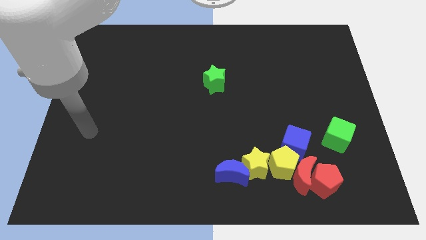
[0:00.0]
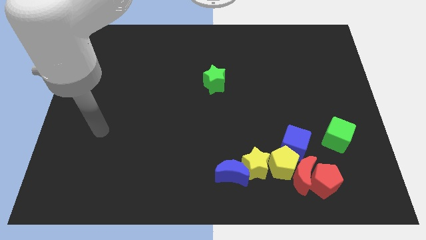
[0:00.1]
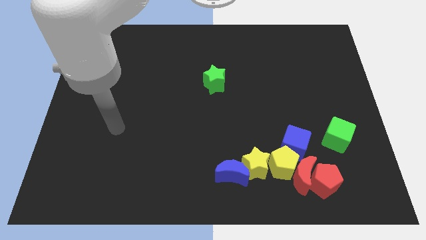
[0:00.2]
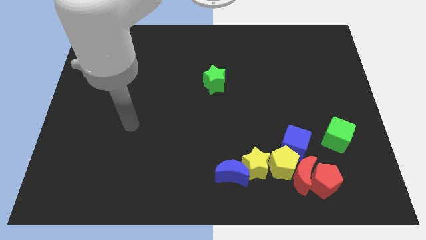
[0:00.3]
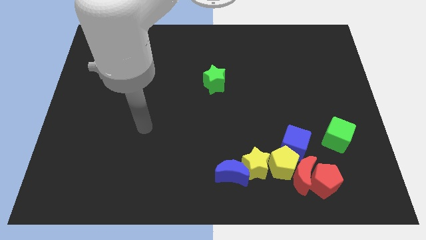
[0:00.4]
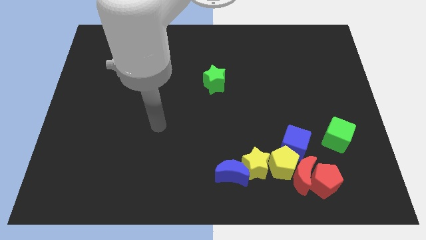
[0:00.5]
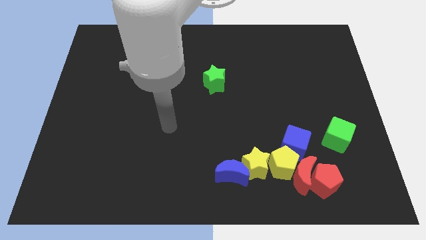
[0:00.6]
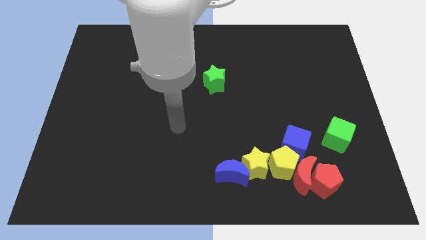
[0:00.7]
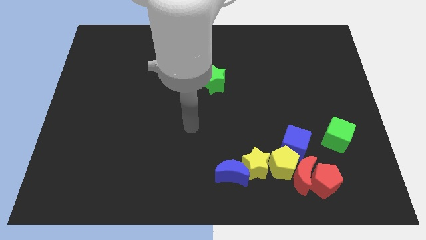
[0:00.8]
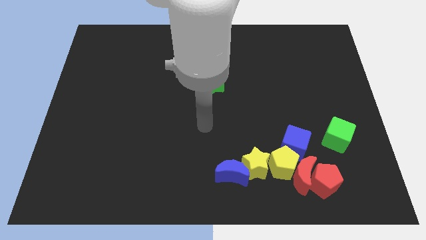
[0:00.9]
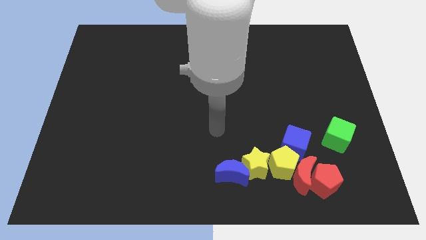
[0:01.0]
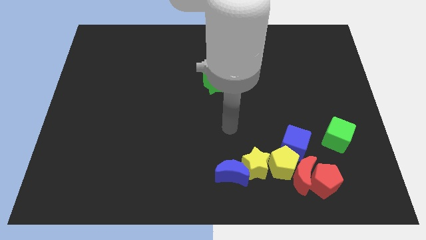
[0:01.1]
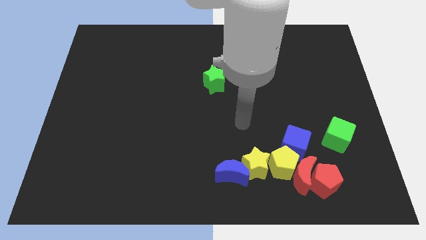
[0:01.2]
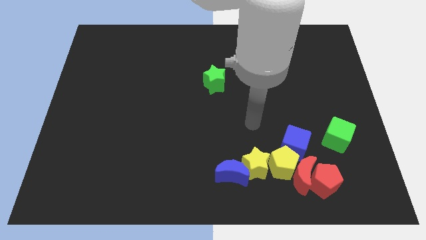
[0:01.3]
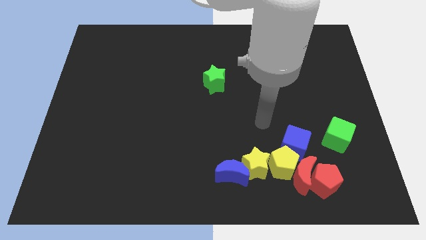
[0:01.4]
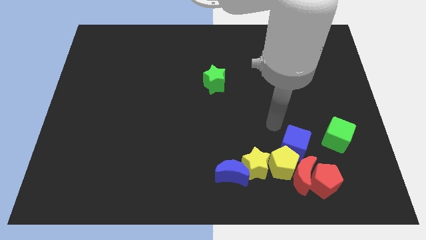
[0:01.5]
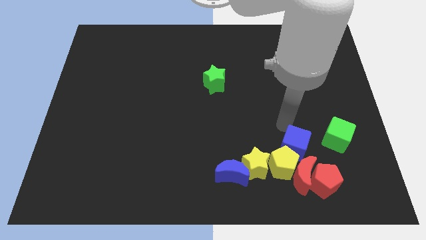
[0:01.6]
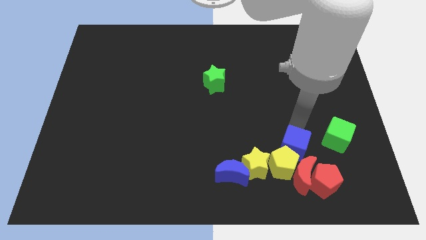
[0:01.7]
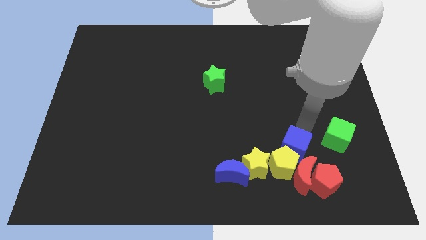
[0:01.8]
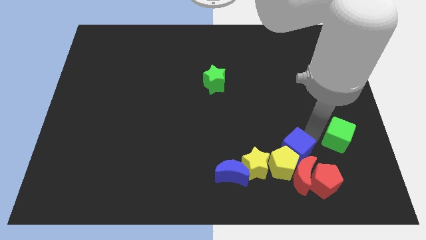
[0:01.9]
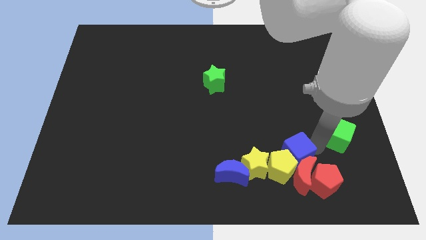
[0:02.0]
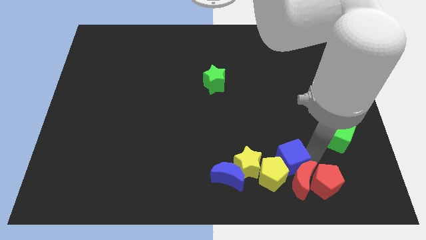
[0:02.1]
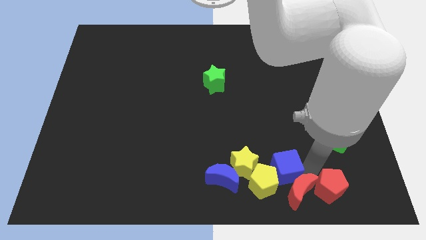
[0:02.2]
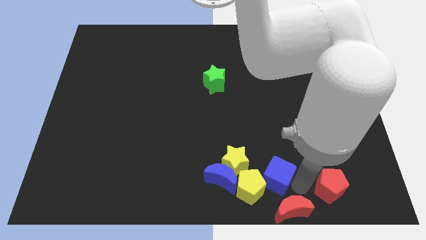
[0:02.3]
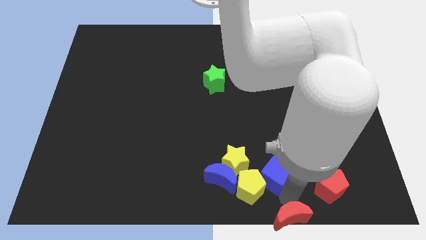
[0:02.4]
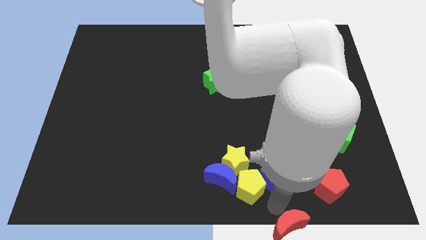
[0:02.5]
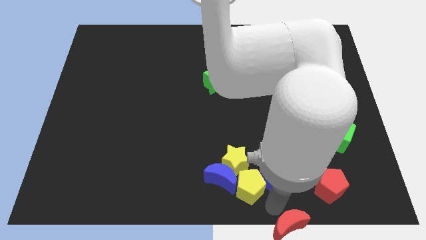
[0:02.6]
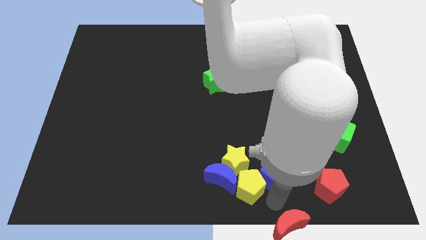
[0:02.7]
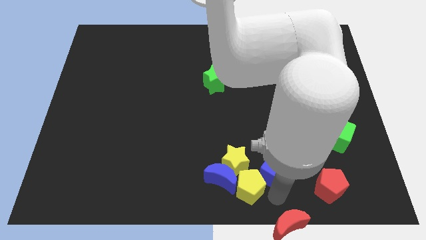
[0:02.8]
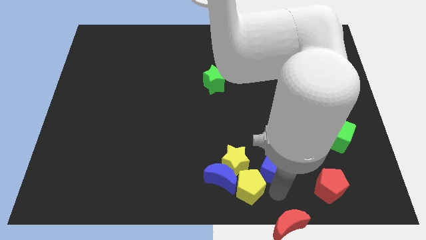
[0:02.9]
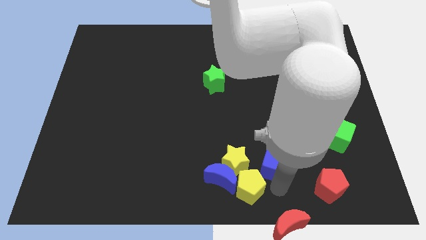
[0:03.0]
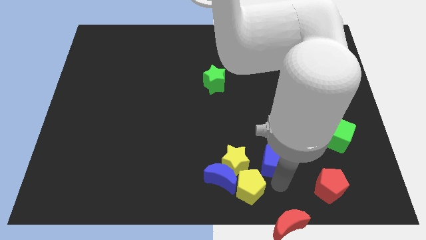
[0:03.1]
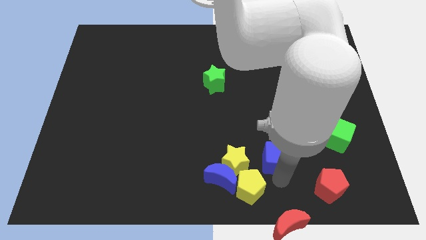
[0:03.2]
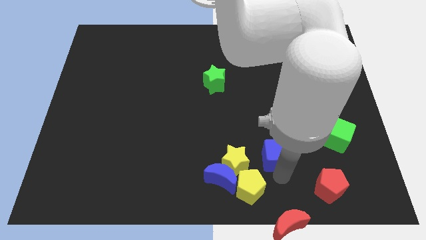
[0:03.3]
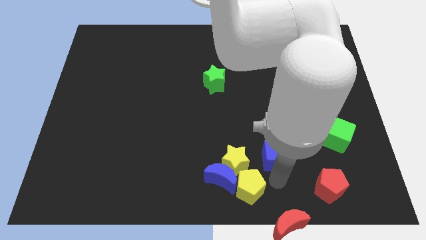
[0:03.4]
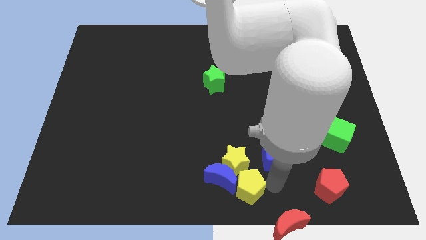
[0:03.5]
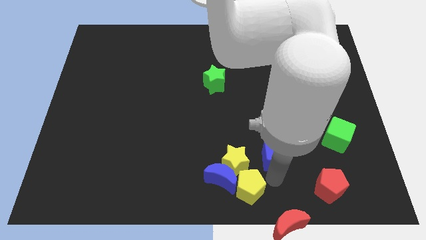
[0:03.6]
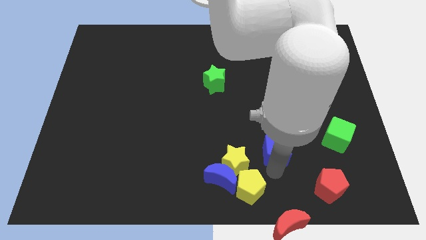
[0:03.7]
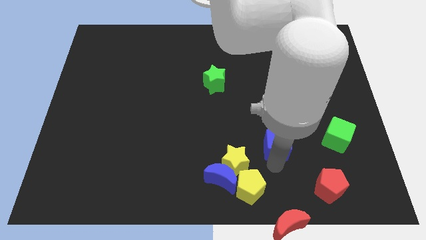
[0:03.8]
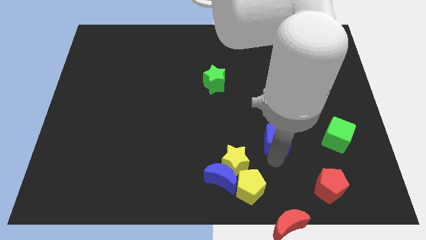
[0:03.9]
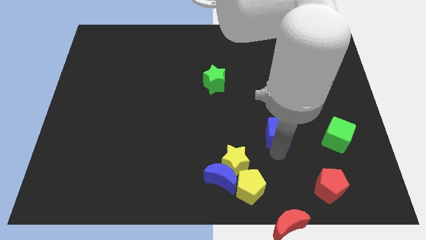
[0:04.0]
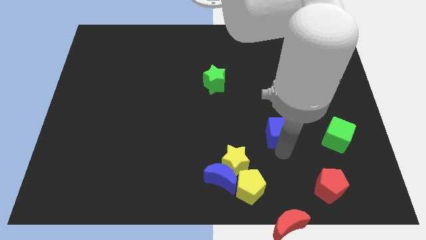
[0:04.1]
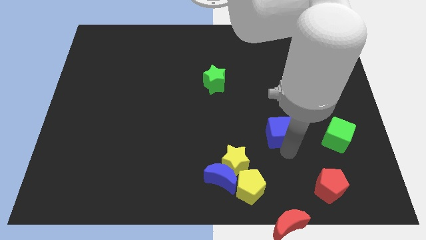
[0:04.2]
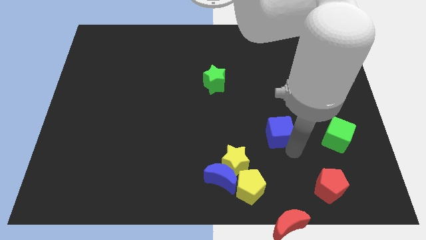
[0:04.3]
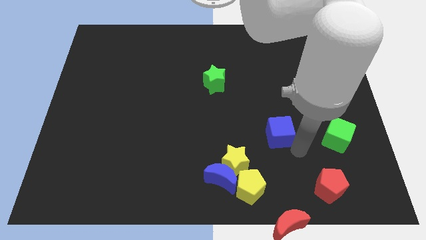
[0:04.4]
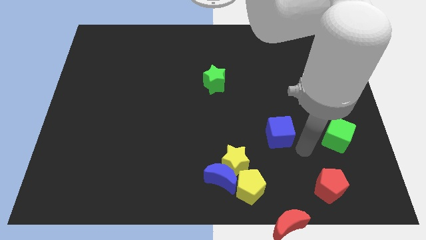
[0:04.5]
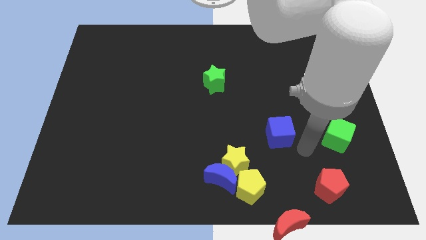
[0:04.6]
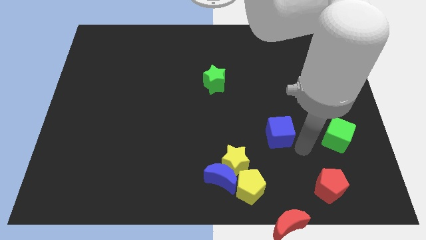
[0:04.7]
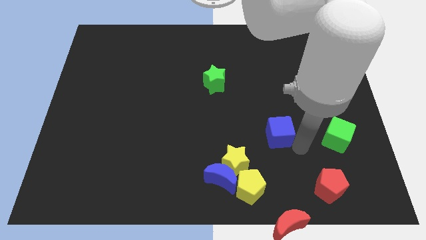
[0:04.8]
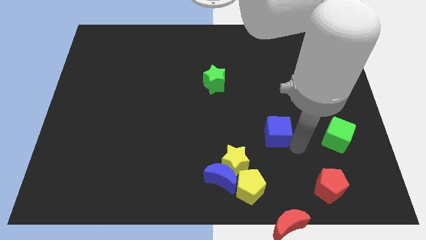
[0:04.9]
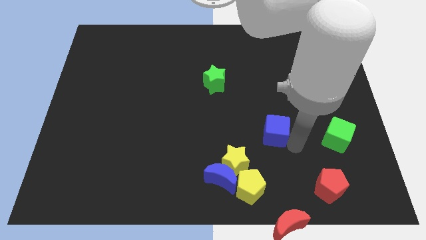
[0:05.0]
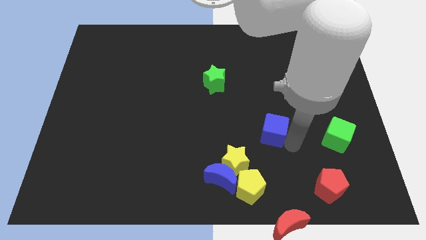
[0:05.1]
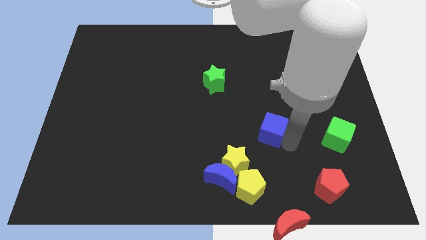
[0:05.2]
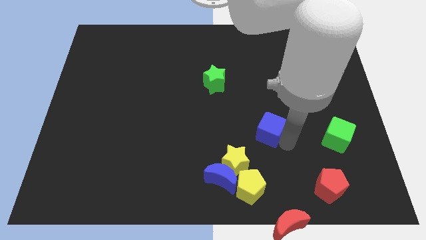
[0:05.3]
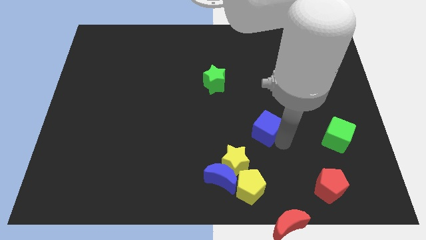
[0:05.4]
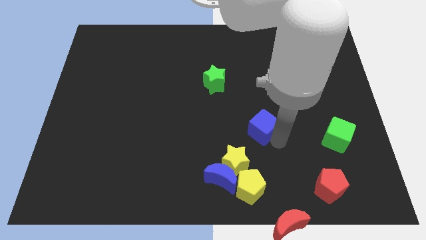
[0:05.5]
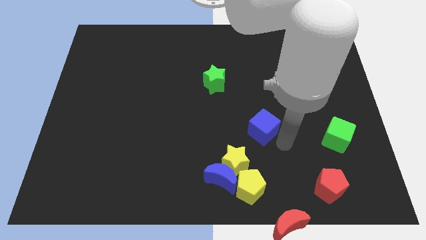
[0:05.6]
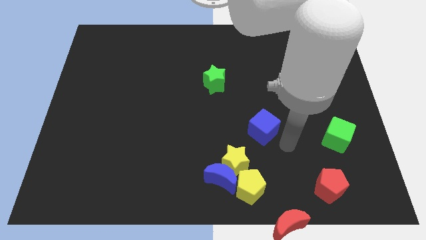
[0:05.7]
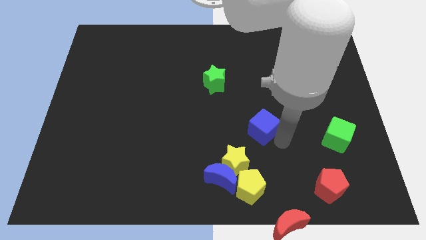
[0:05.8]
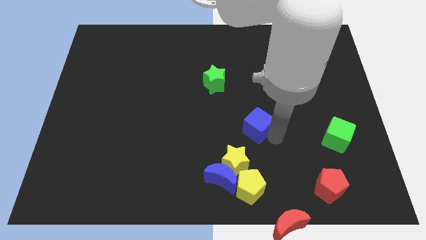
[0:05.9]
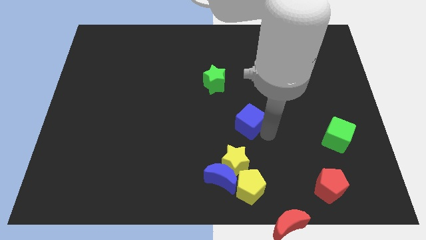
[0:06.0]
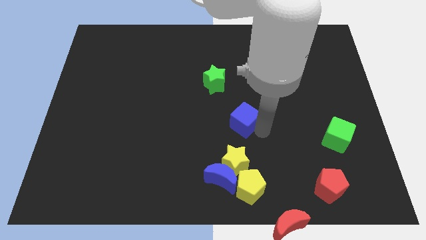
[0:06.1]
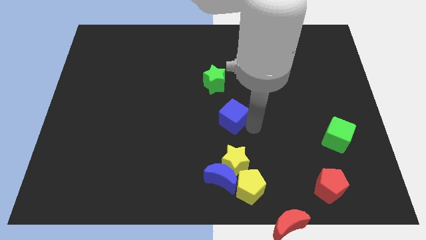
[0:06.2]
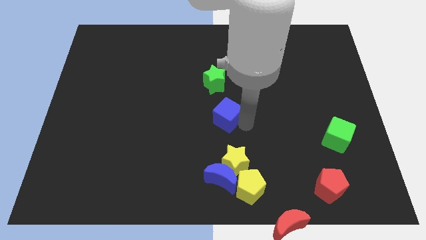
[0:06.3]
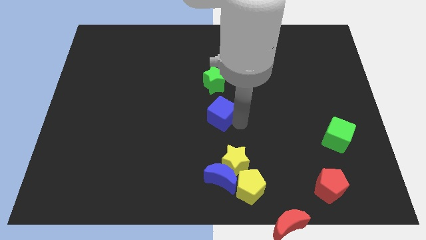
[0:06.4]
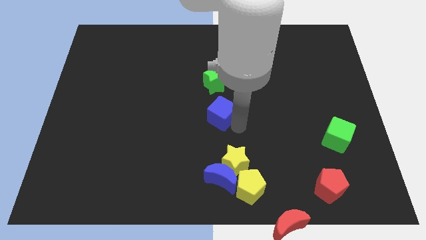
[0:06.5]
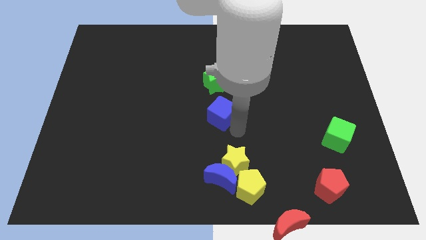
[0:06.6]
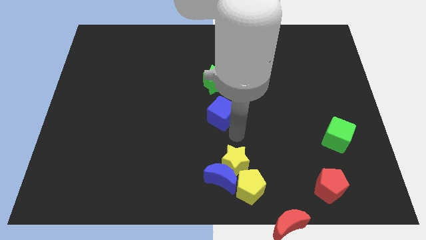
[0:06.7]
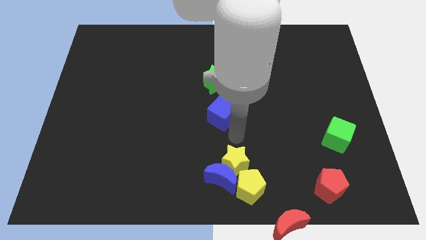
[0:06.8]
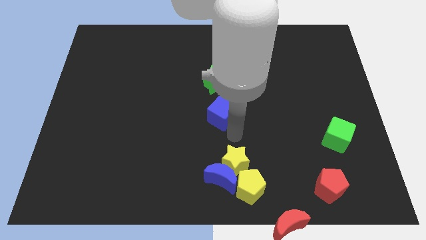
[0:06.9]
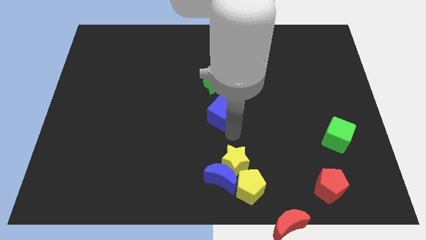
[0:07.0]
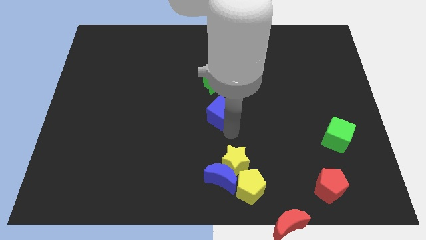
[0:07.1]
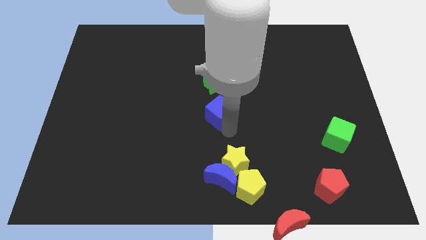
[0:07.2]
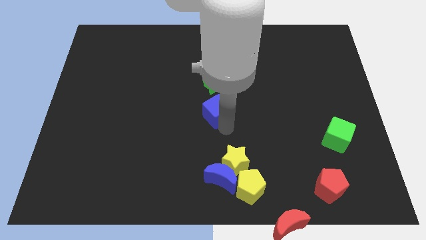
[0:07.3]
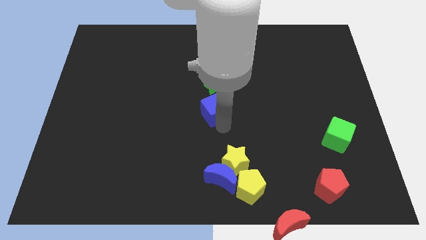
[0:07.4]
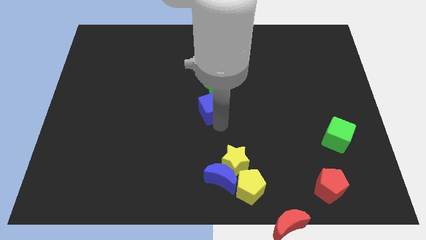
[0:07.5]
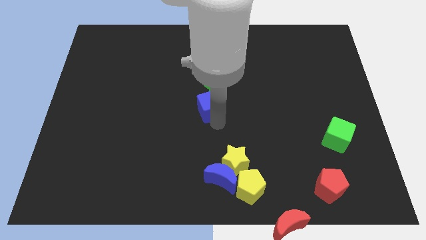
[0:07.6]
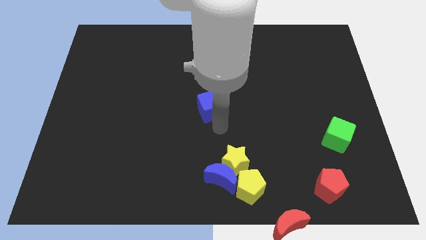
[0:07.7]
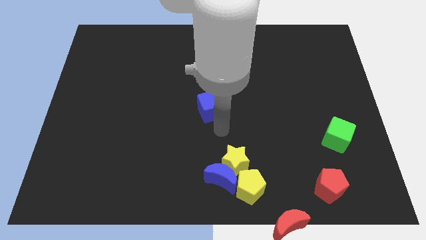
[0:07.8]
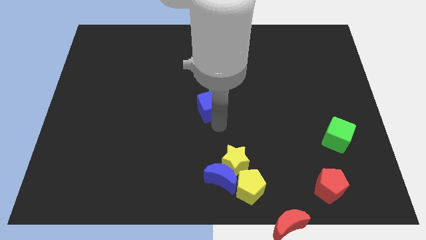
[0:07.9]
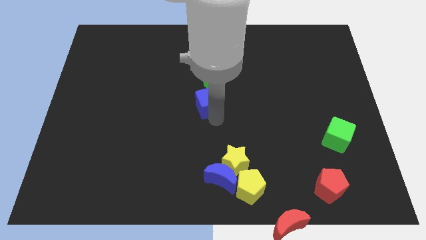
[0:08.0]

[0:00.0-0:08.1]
slide the blue cube up and then left
